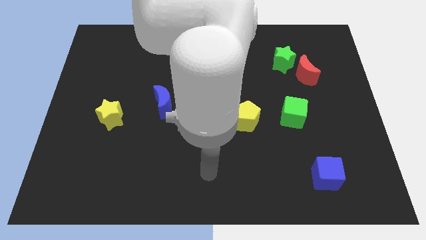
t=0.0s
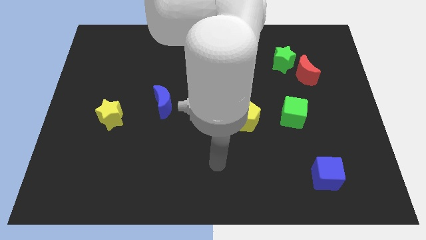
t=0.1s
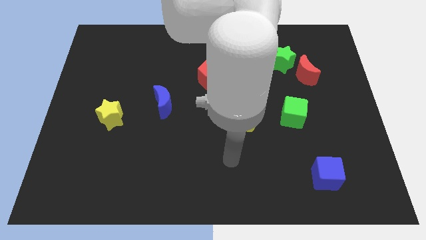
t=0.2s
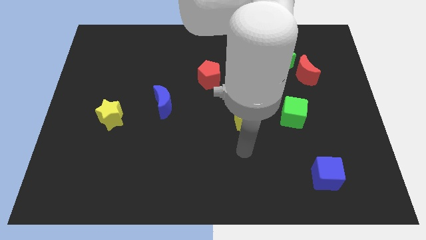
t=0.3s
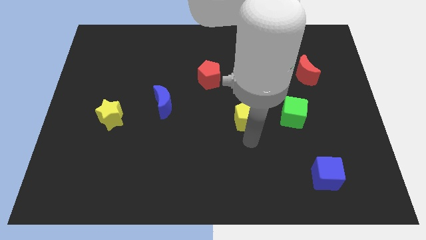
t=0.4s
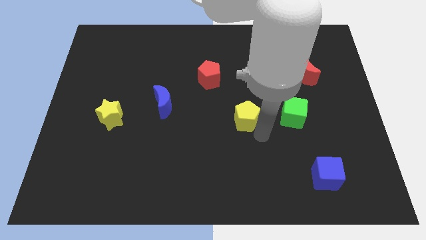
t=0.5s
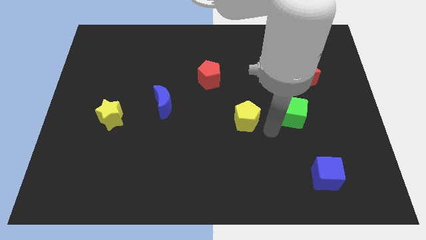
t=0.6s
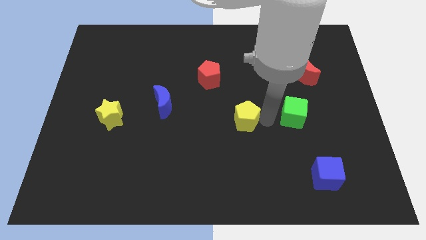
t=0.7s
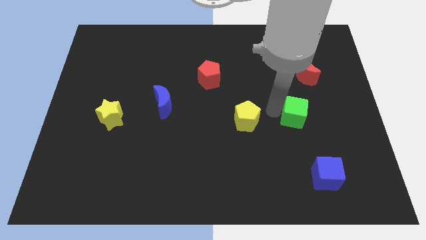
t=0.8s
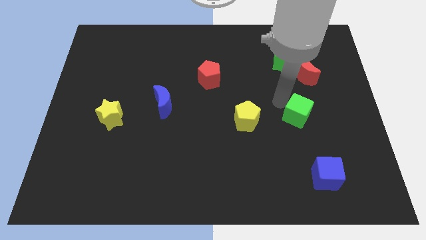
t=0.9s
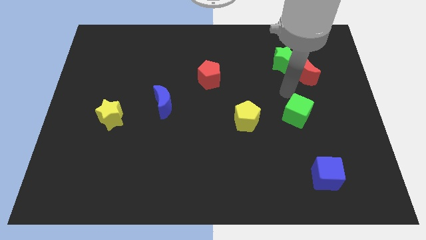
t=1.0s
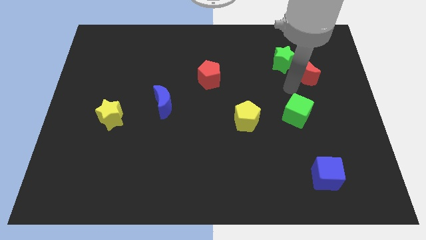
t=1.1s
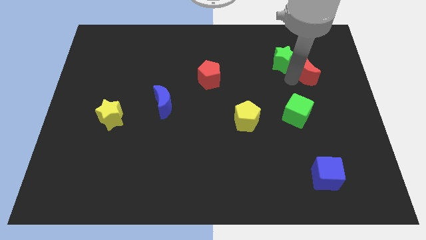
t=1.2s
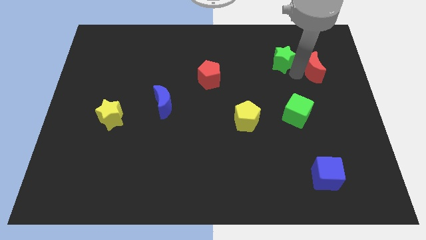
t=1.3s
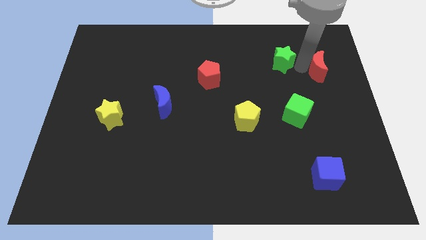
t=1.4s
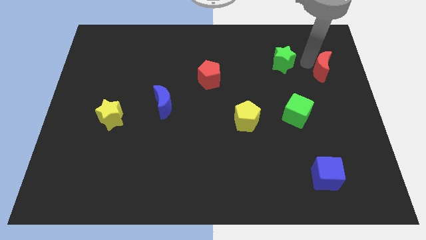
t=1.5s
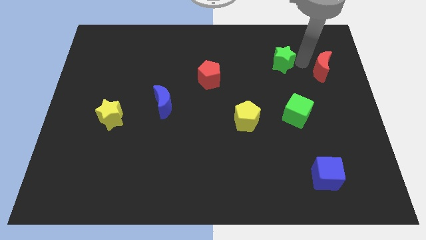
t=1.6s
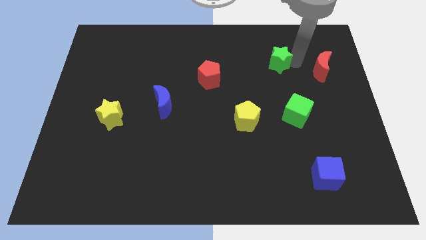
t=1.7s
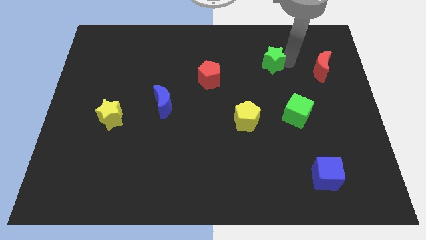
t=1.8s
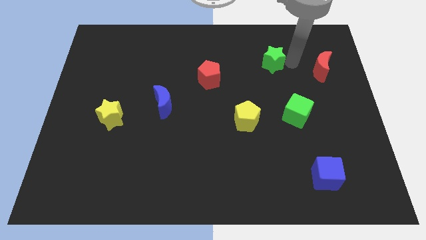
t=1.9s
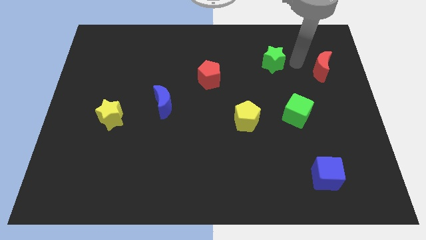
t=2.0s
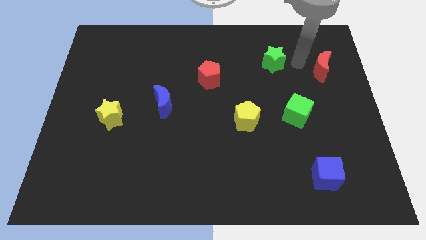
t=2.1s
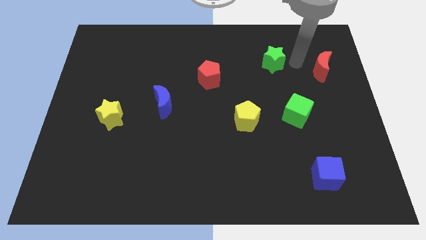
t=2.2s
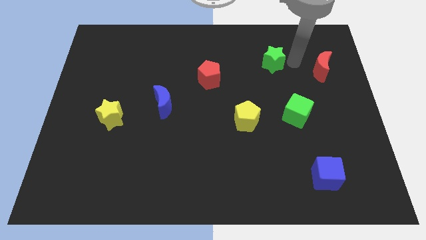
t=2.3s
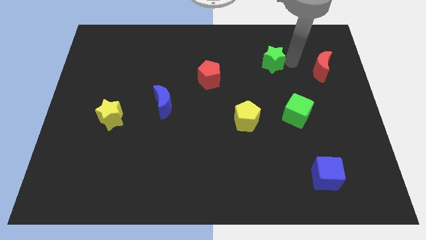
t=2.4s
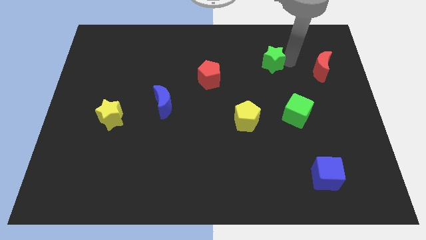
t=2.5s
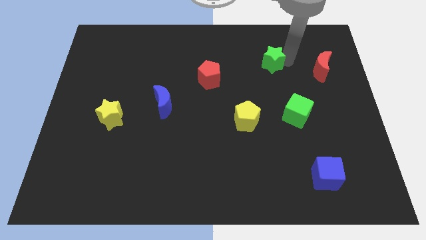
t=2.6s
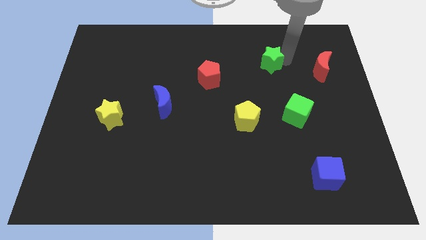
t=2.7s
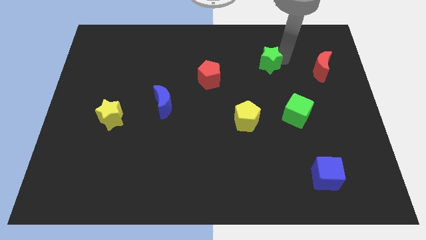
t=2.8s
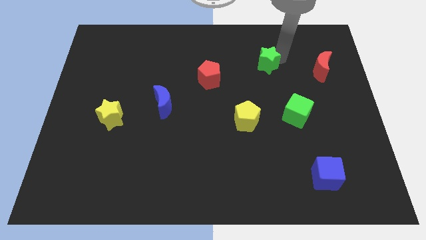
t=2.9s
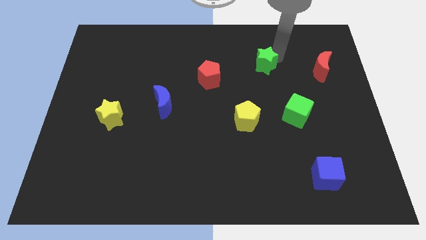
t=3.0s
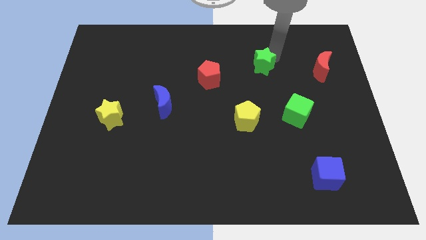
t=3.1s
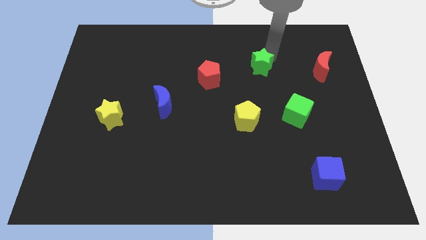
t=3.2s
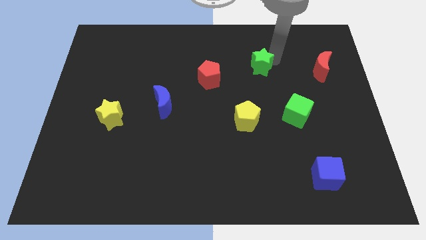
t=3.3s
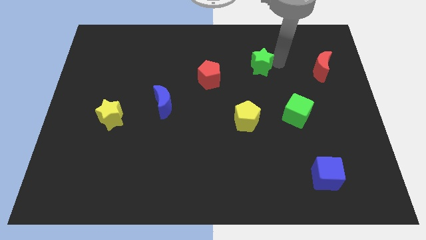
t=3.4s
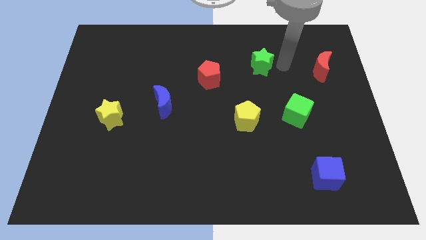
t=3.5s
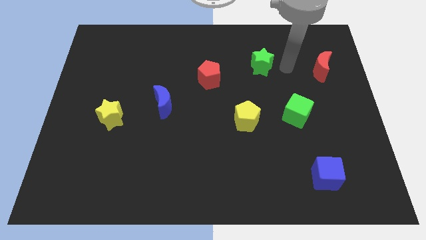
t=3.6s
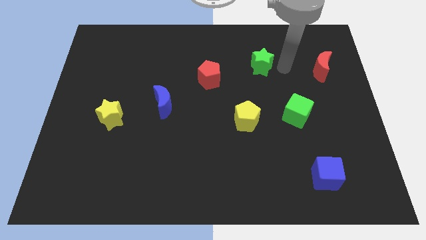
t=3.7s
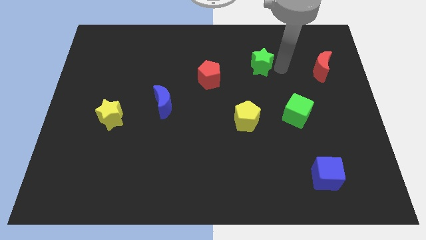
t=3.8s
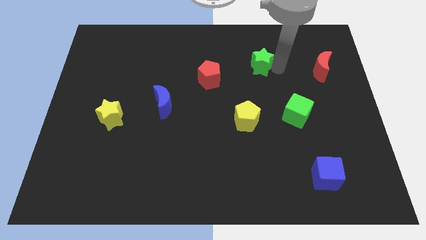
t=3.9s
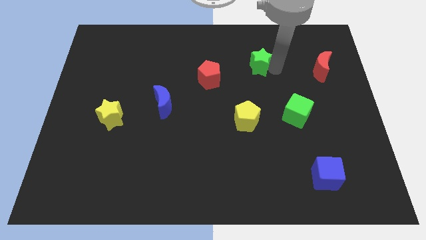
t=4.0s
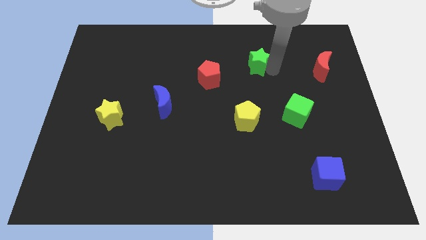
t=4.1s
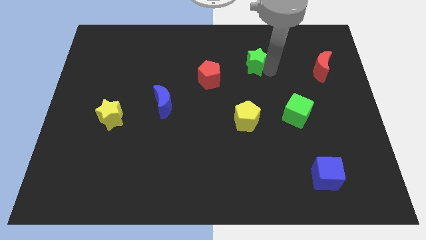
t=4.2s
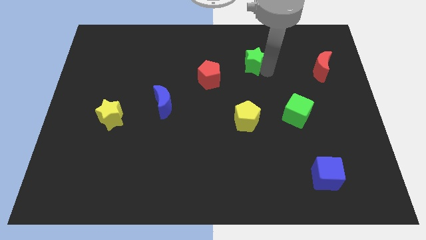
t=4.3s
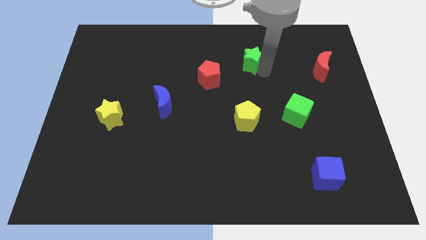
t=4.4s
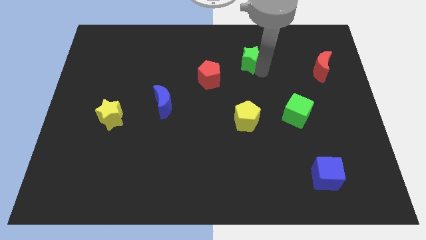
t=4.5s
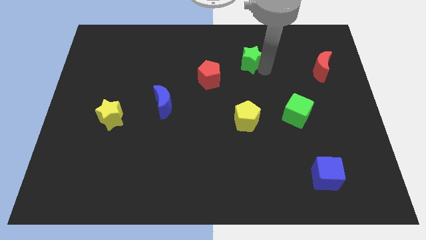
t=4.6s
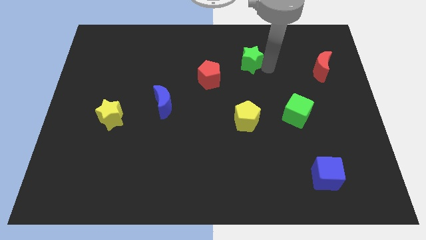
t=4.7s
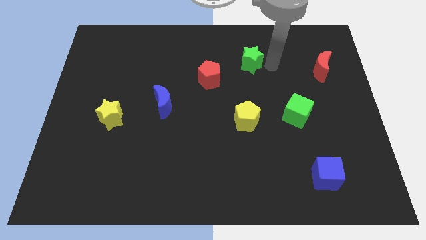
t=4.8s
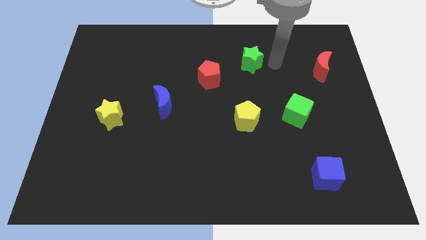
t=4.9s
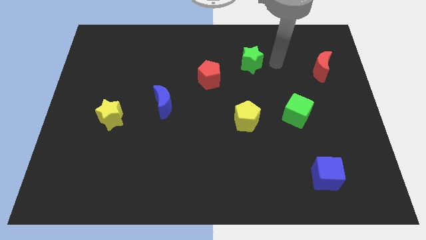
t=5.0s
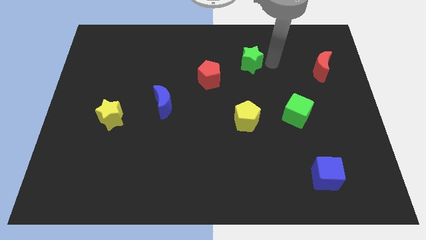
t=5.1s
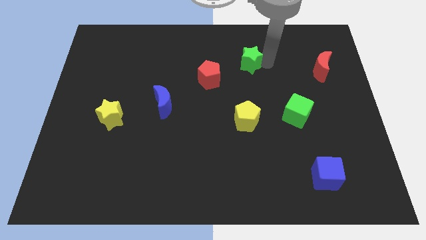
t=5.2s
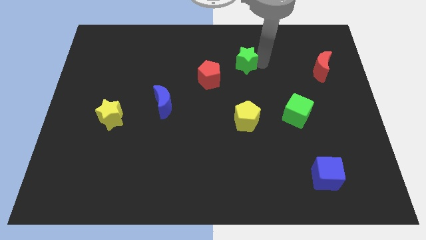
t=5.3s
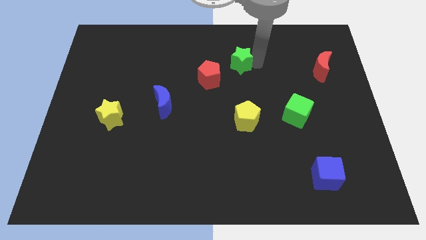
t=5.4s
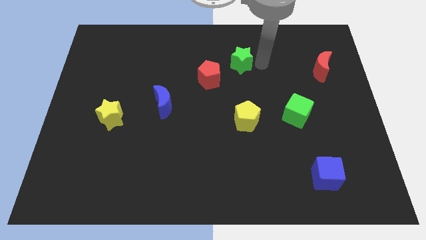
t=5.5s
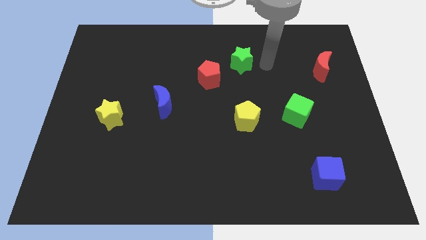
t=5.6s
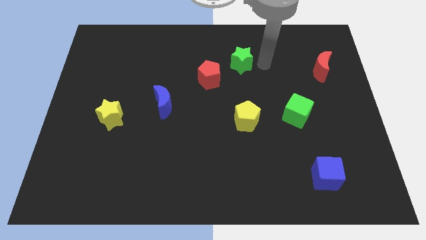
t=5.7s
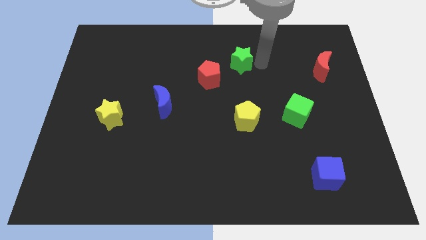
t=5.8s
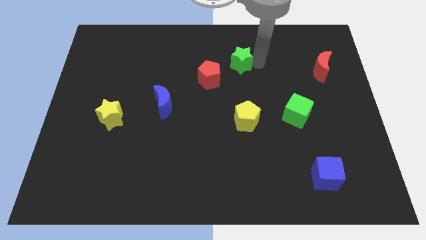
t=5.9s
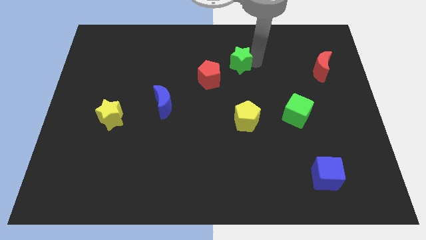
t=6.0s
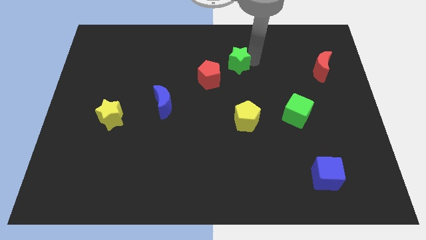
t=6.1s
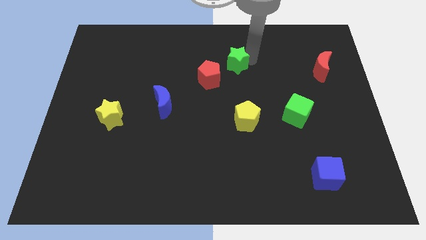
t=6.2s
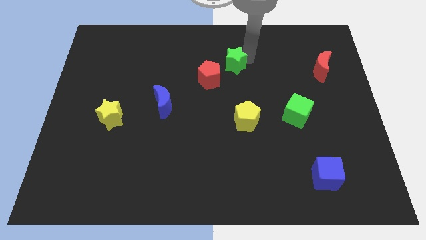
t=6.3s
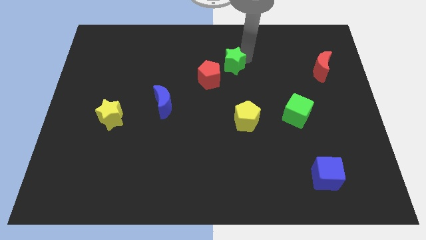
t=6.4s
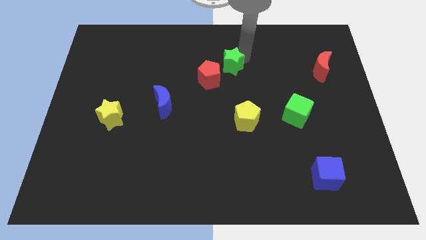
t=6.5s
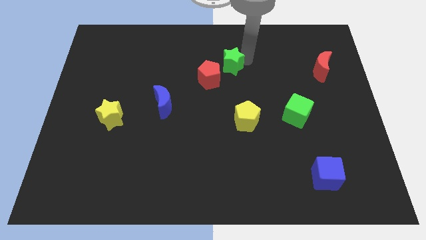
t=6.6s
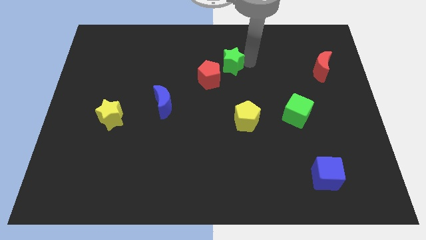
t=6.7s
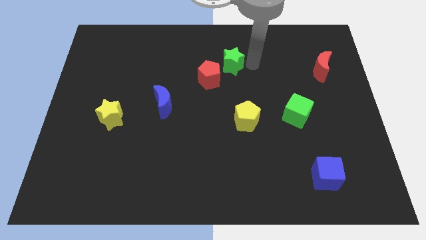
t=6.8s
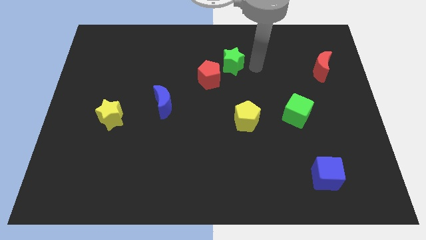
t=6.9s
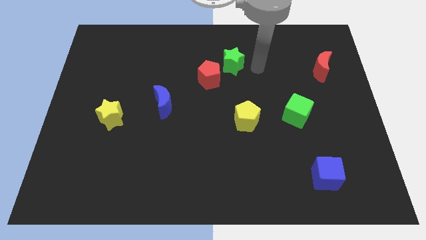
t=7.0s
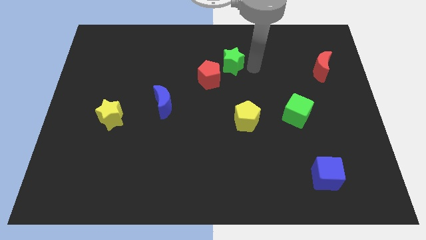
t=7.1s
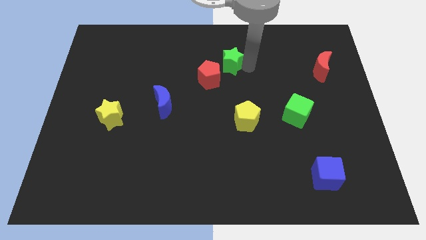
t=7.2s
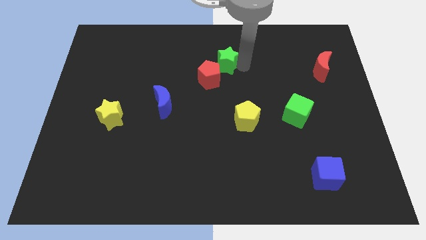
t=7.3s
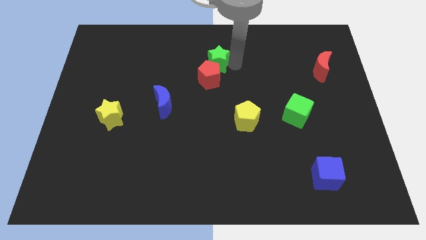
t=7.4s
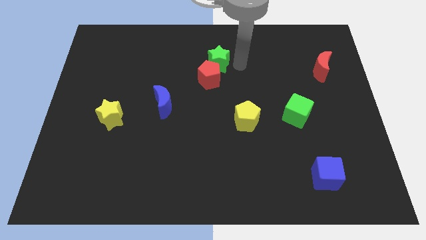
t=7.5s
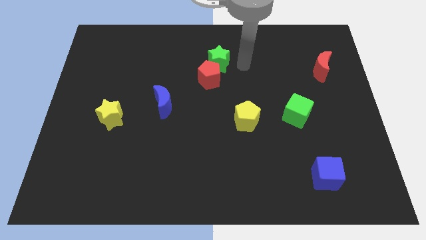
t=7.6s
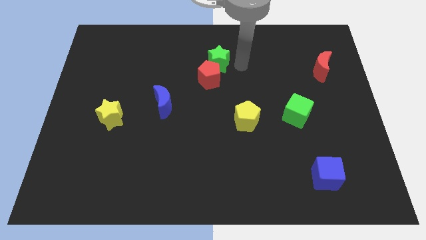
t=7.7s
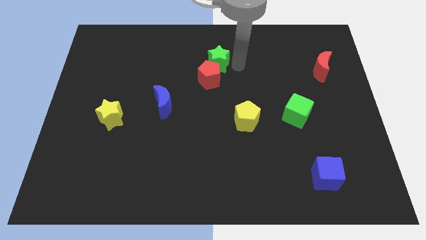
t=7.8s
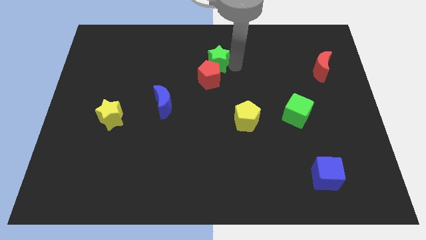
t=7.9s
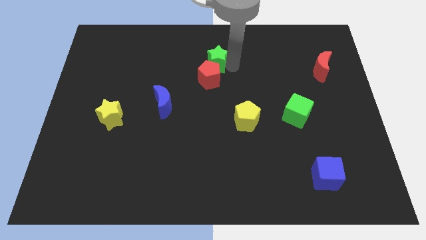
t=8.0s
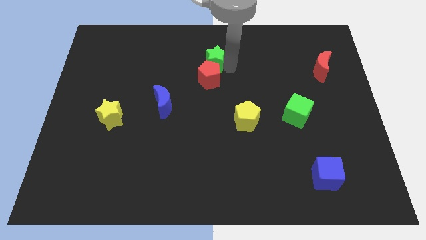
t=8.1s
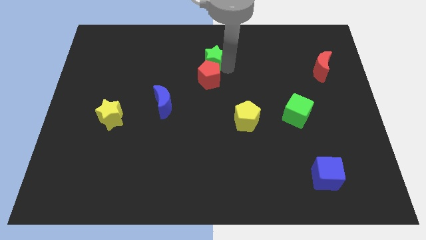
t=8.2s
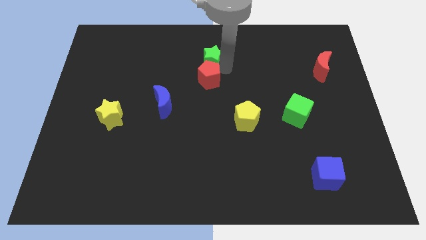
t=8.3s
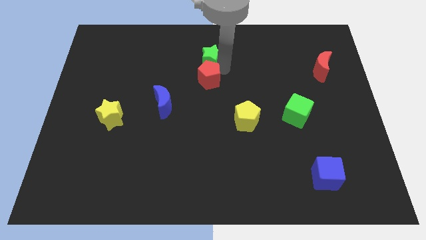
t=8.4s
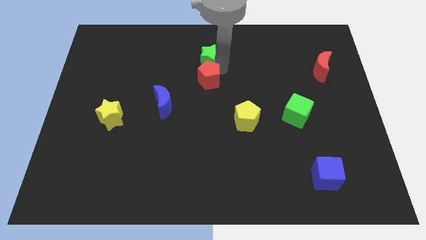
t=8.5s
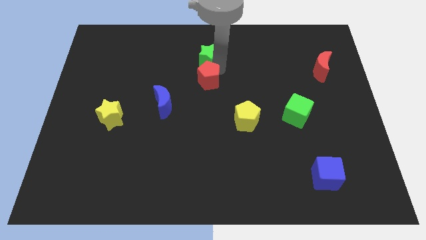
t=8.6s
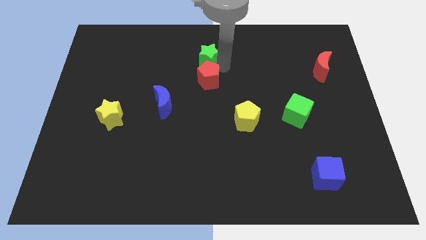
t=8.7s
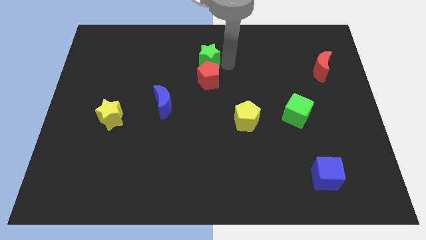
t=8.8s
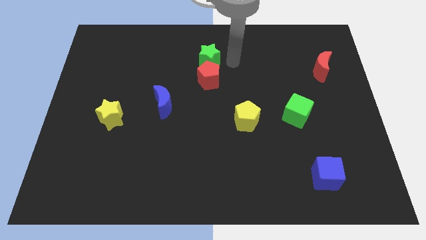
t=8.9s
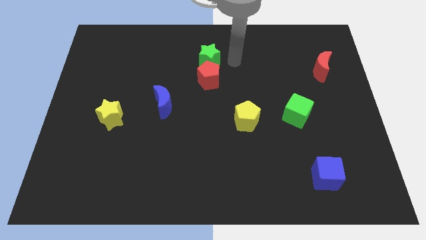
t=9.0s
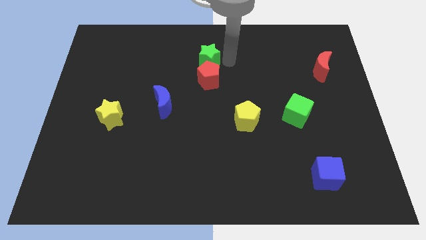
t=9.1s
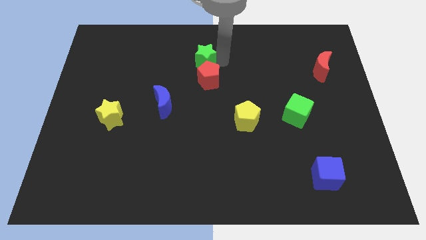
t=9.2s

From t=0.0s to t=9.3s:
move the green star left
